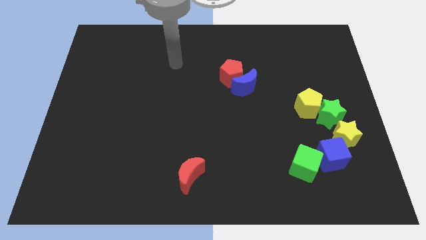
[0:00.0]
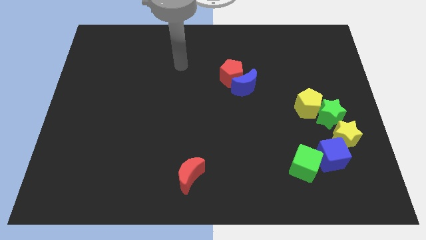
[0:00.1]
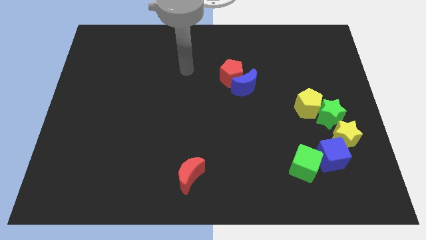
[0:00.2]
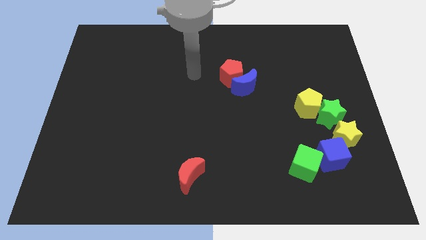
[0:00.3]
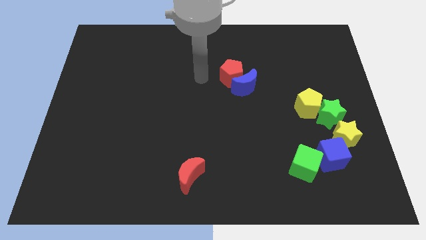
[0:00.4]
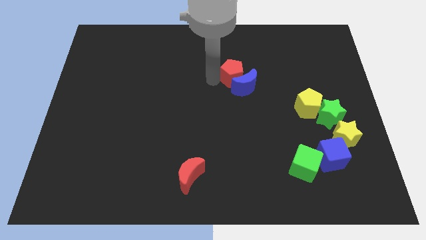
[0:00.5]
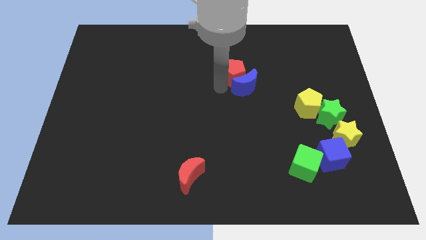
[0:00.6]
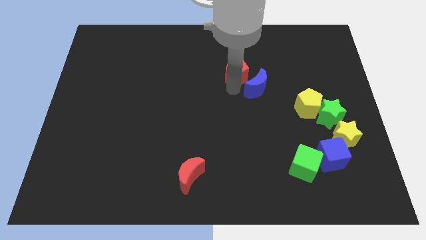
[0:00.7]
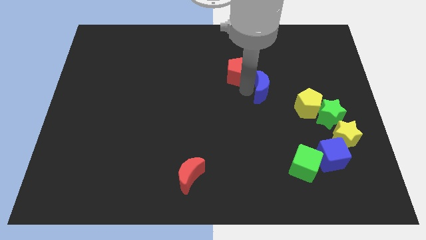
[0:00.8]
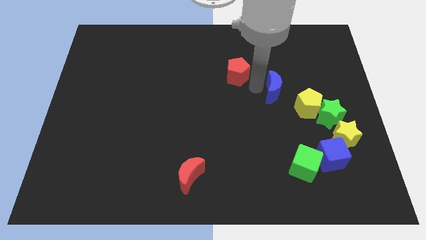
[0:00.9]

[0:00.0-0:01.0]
separate the red pentagon from the blue moon

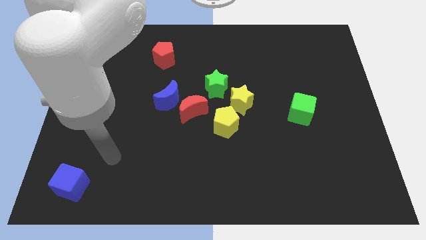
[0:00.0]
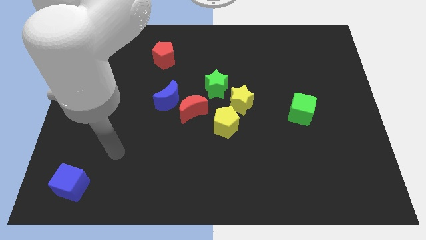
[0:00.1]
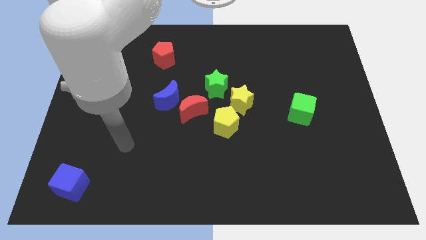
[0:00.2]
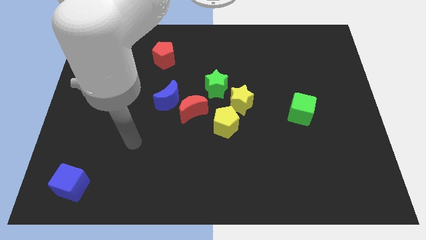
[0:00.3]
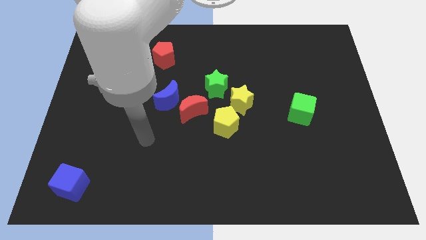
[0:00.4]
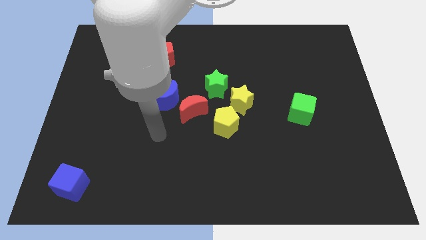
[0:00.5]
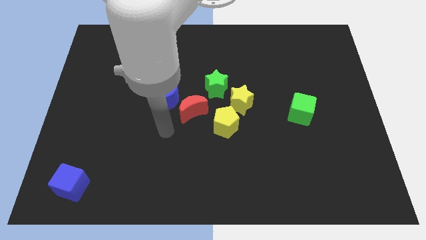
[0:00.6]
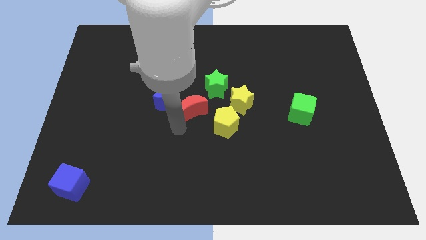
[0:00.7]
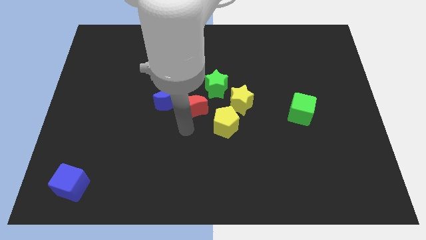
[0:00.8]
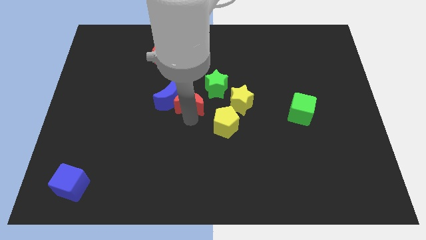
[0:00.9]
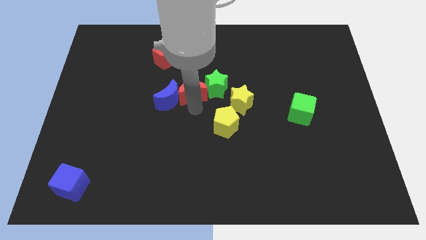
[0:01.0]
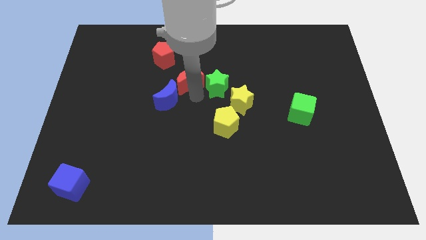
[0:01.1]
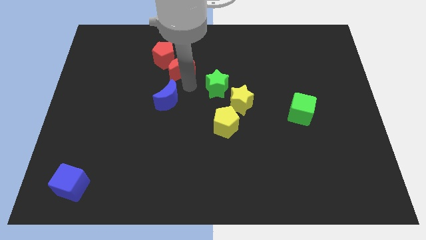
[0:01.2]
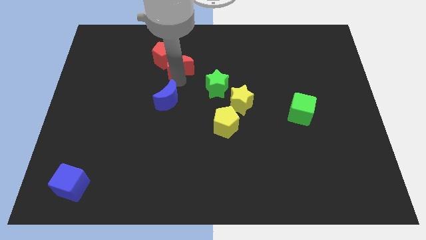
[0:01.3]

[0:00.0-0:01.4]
move the blue moon away from the red moon

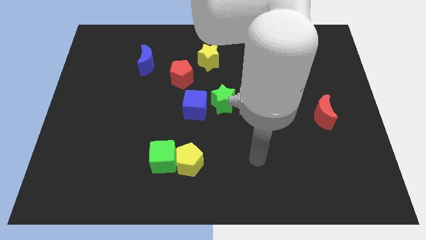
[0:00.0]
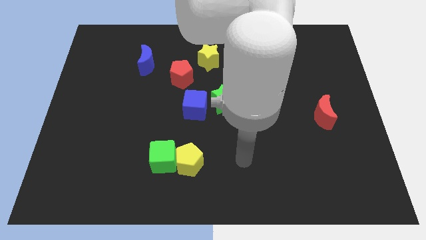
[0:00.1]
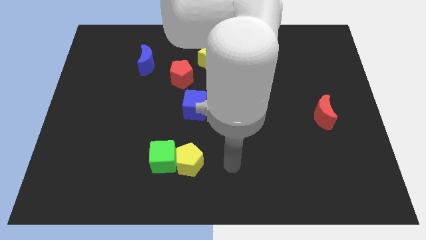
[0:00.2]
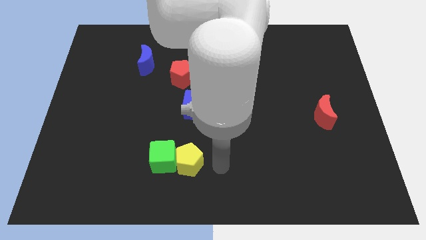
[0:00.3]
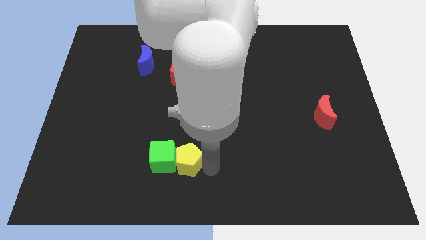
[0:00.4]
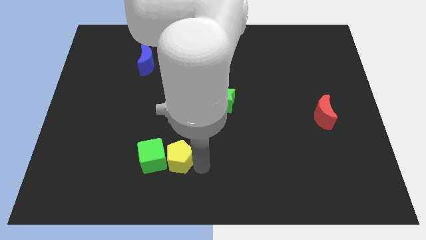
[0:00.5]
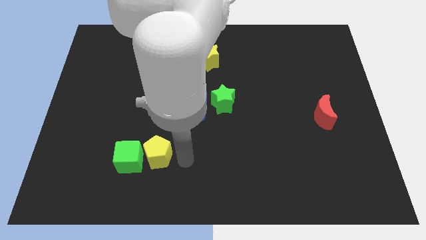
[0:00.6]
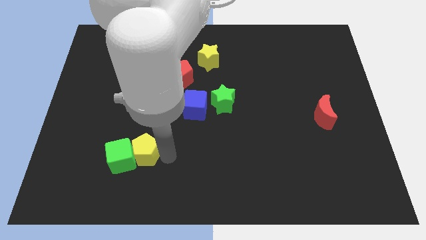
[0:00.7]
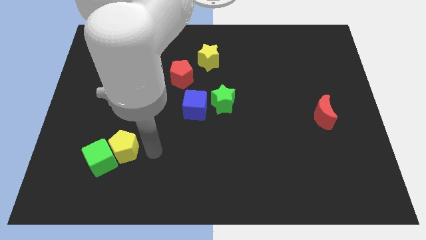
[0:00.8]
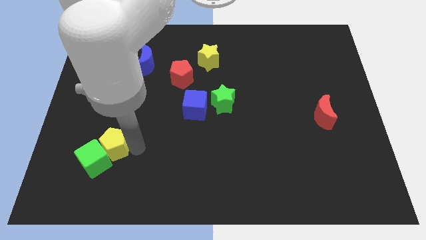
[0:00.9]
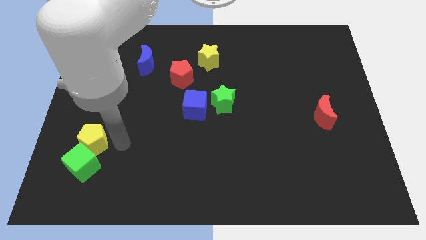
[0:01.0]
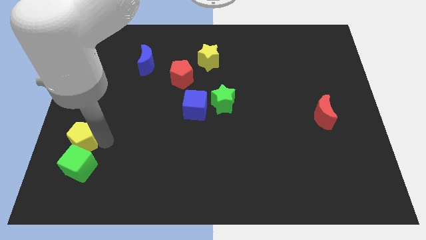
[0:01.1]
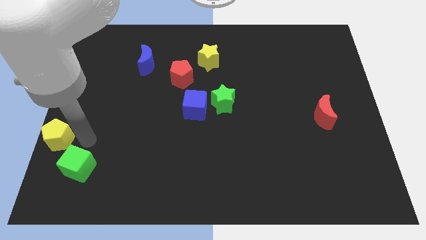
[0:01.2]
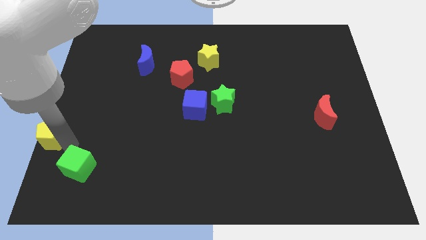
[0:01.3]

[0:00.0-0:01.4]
pull the green cube apart from the yellow pentagon

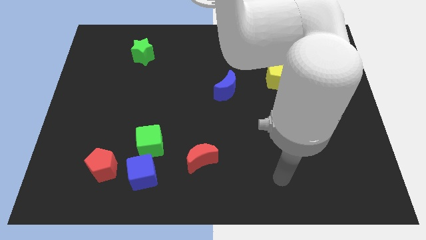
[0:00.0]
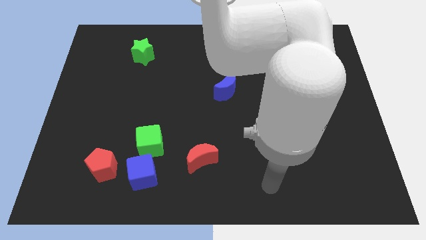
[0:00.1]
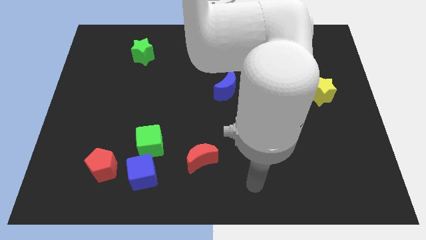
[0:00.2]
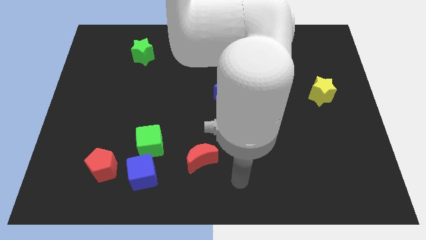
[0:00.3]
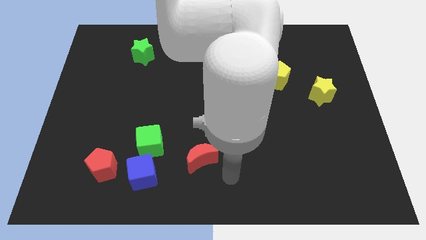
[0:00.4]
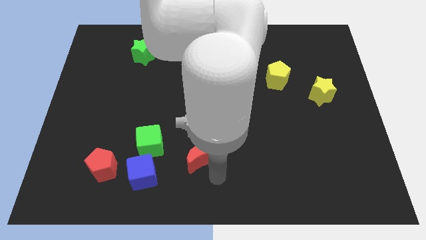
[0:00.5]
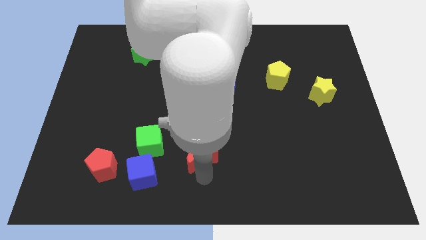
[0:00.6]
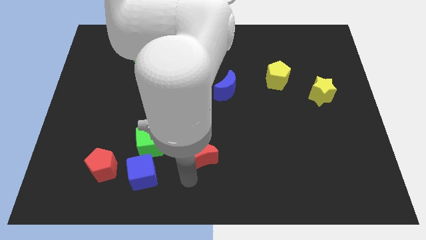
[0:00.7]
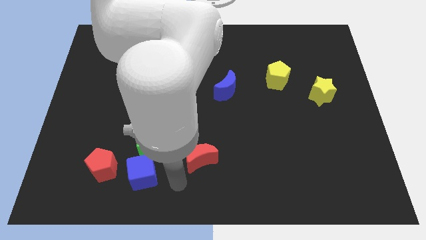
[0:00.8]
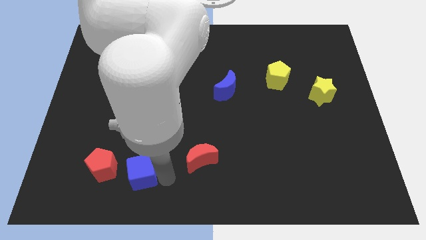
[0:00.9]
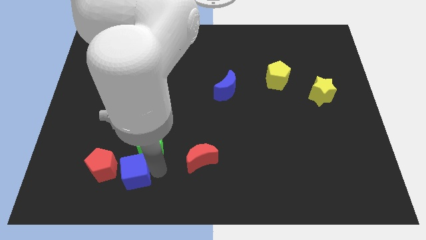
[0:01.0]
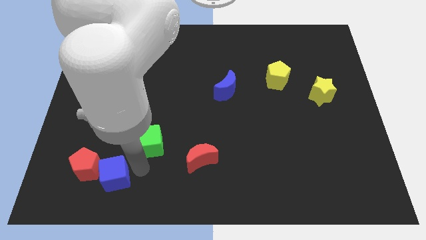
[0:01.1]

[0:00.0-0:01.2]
separate the green cube from the blue cube

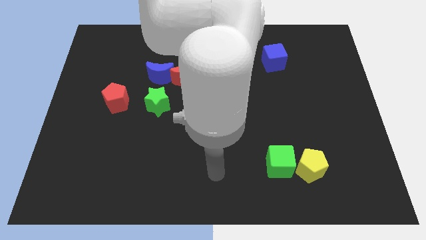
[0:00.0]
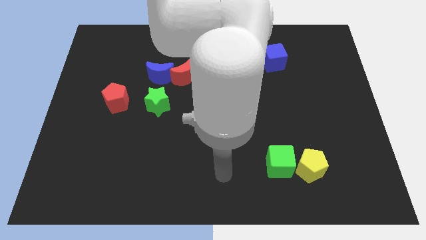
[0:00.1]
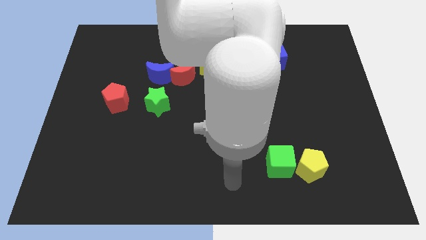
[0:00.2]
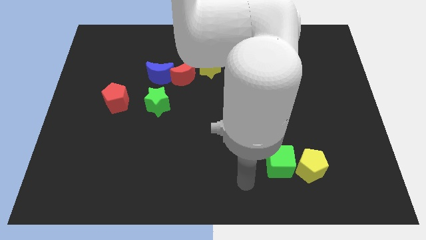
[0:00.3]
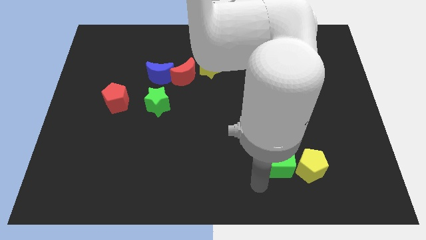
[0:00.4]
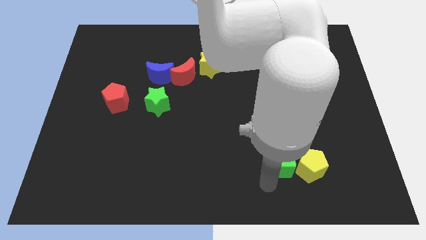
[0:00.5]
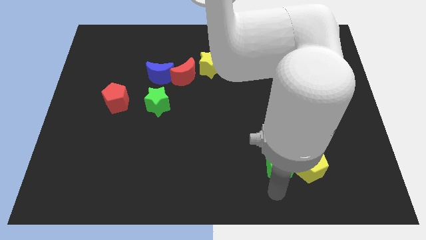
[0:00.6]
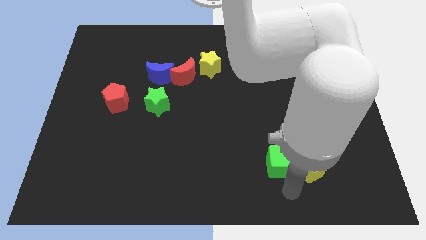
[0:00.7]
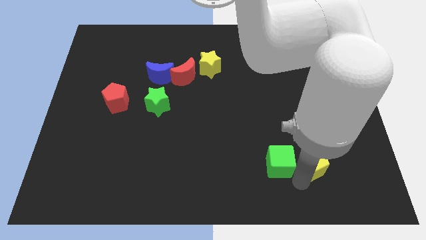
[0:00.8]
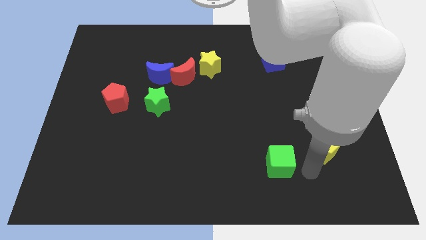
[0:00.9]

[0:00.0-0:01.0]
separate the green cube from the yellow pentagon

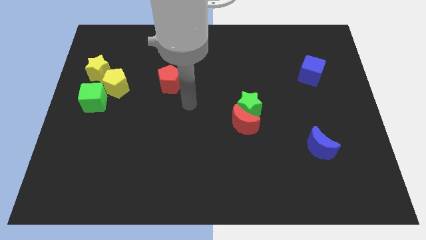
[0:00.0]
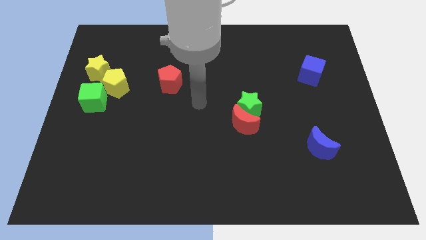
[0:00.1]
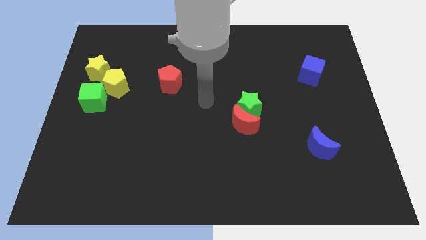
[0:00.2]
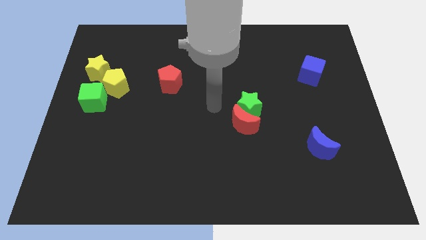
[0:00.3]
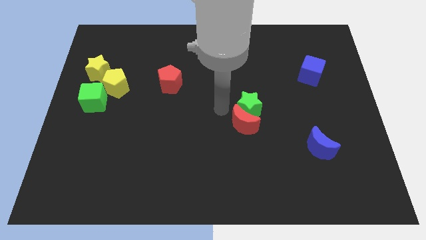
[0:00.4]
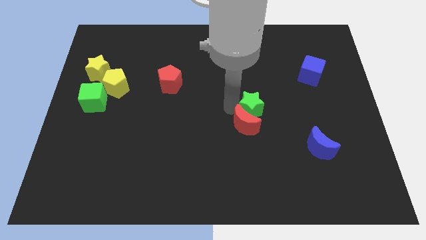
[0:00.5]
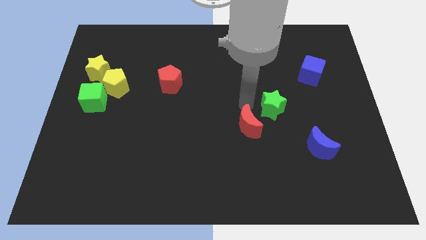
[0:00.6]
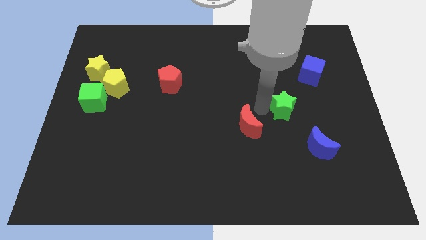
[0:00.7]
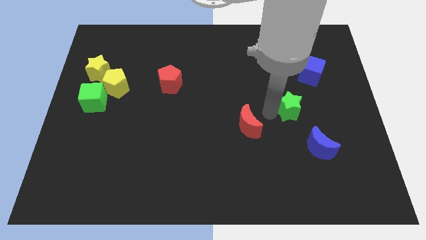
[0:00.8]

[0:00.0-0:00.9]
move the red moon away from the green star

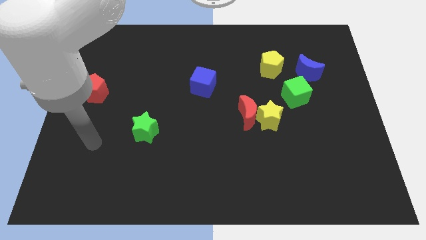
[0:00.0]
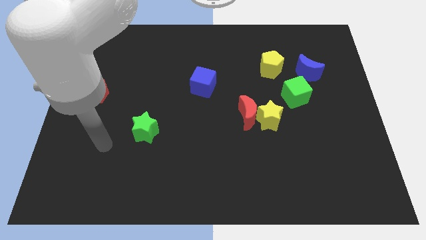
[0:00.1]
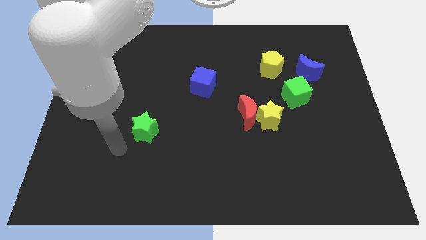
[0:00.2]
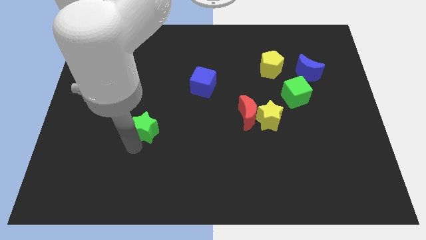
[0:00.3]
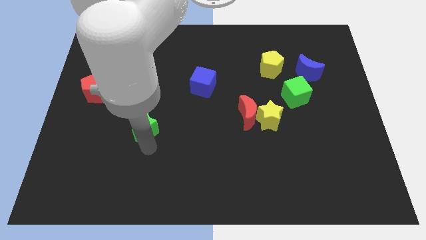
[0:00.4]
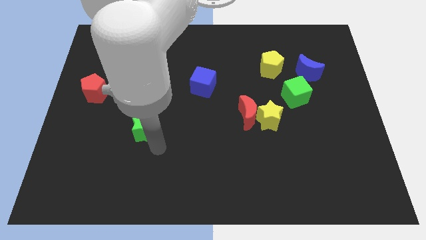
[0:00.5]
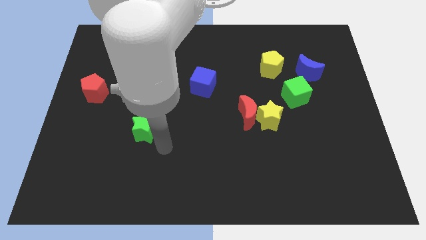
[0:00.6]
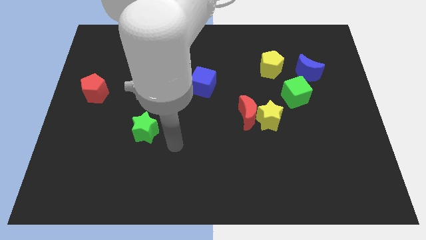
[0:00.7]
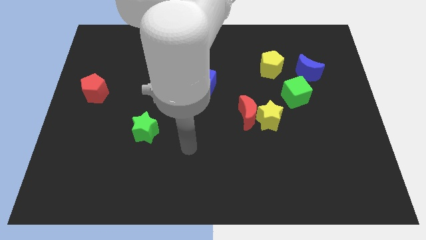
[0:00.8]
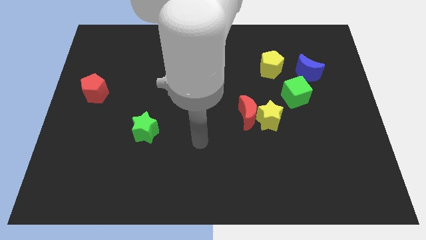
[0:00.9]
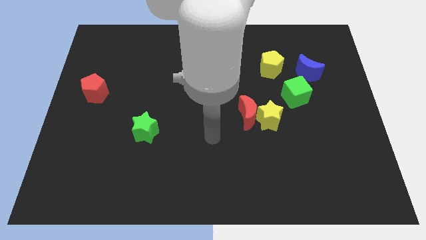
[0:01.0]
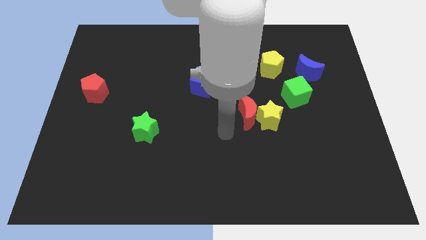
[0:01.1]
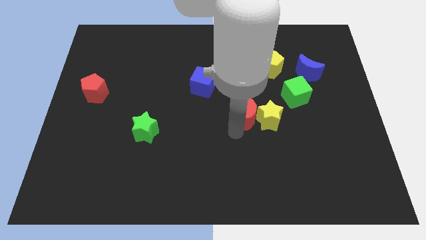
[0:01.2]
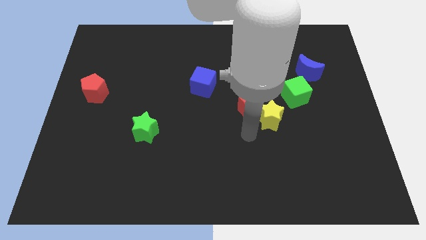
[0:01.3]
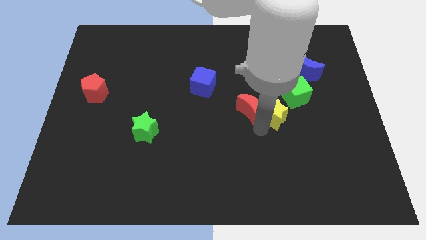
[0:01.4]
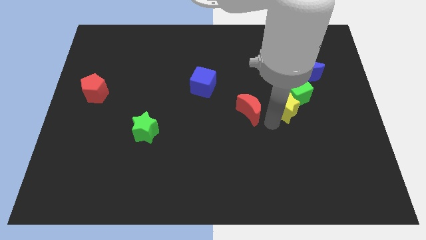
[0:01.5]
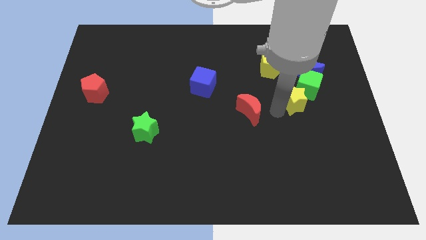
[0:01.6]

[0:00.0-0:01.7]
pull the red moon apart from the yellow star

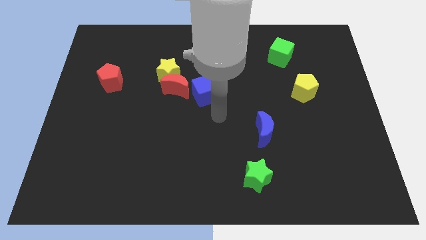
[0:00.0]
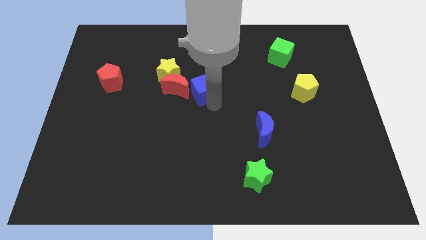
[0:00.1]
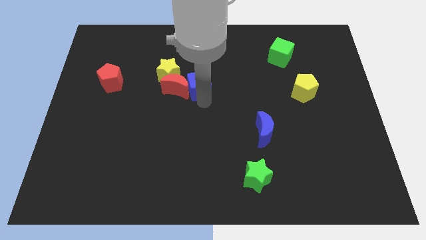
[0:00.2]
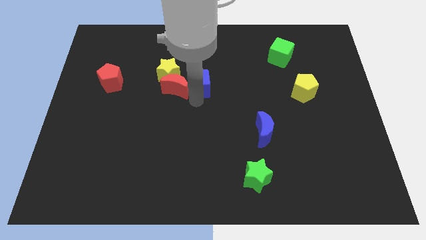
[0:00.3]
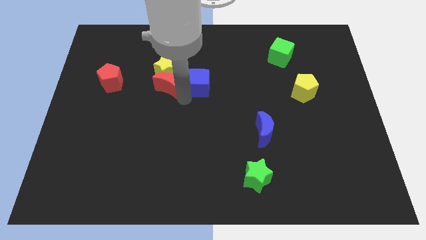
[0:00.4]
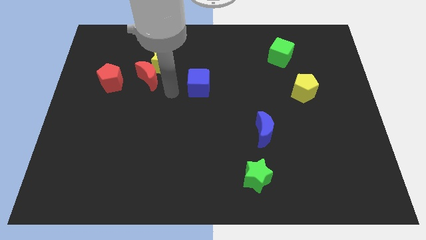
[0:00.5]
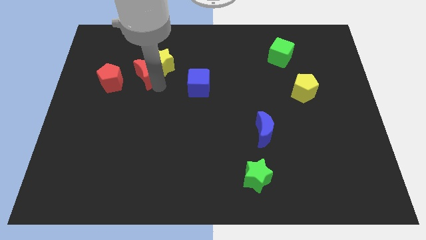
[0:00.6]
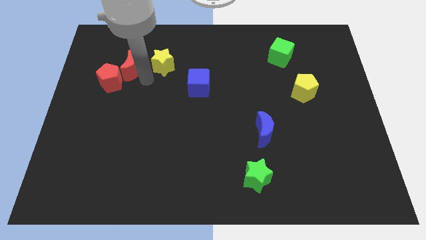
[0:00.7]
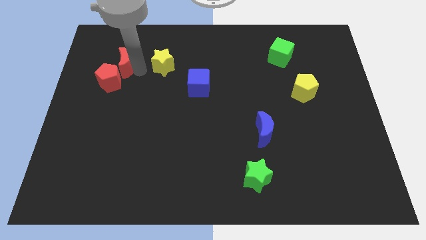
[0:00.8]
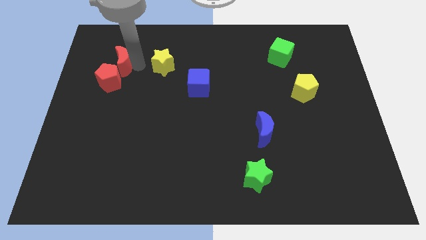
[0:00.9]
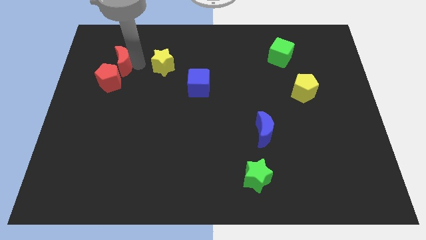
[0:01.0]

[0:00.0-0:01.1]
separate the yellow star from the red moon
